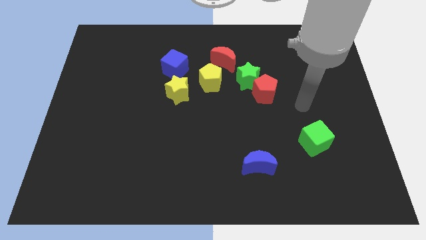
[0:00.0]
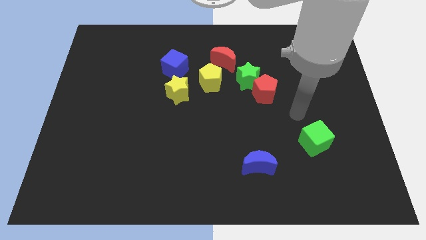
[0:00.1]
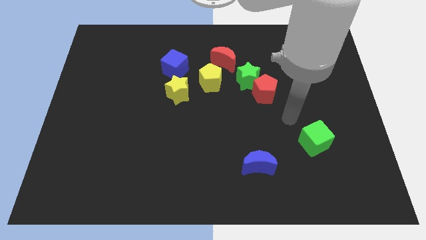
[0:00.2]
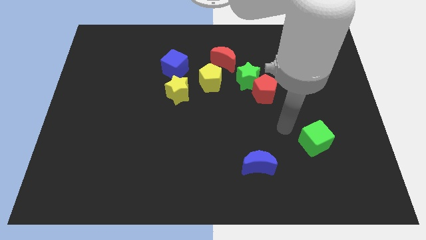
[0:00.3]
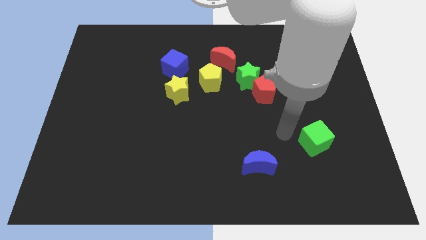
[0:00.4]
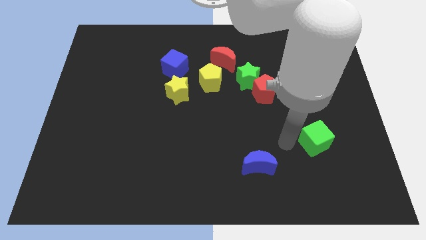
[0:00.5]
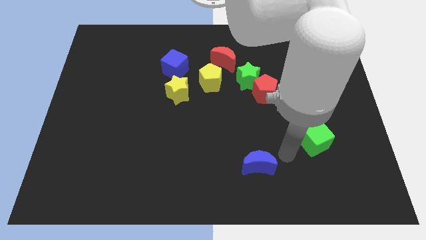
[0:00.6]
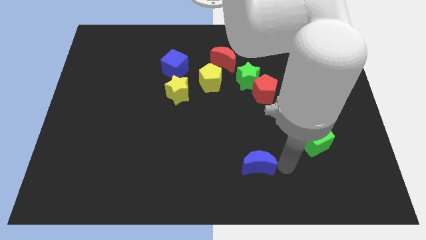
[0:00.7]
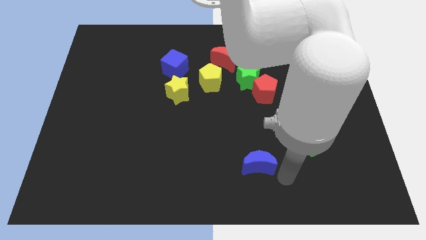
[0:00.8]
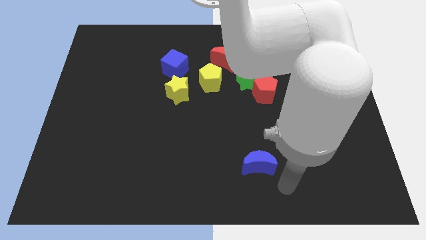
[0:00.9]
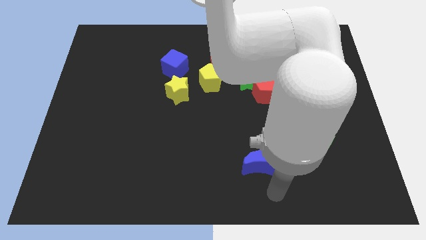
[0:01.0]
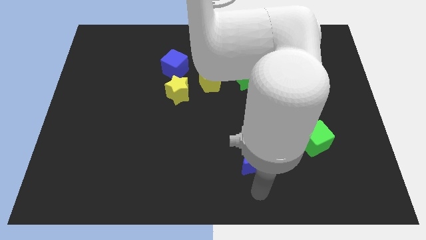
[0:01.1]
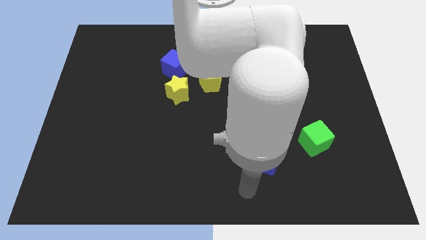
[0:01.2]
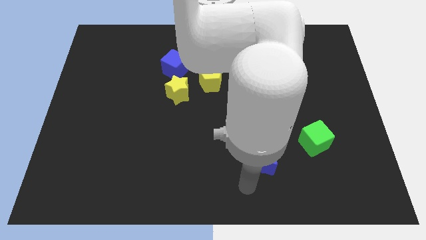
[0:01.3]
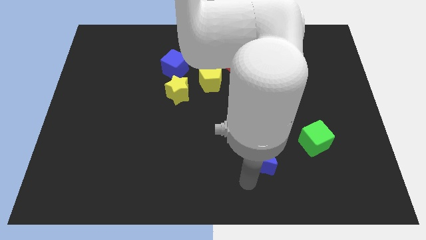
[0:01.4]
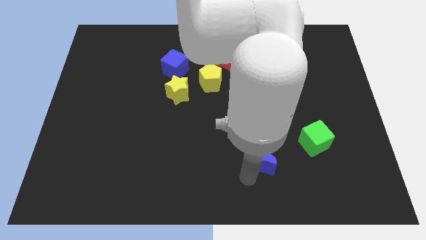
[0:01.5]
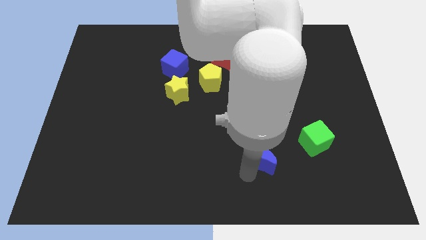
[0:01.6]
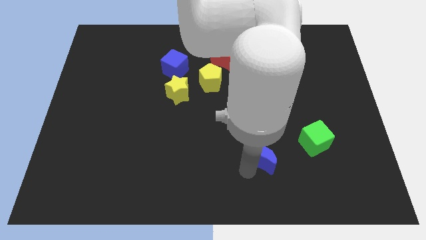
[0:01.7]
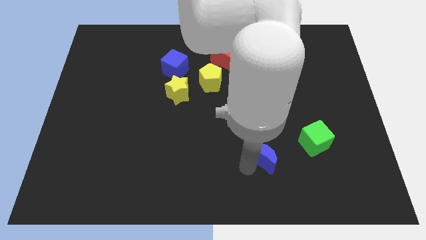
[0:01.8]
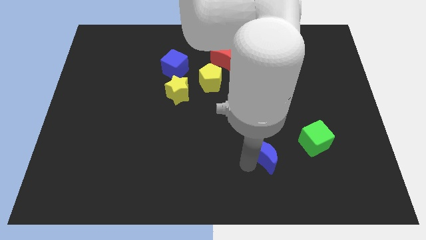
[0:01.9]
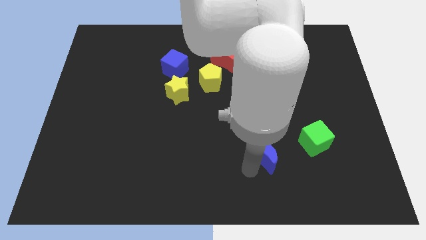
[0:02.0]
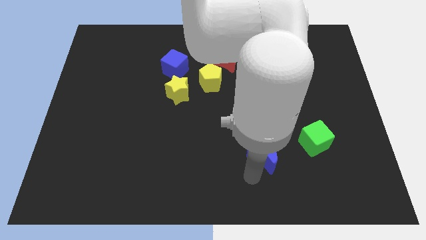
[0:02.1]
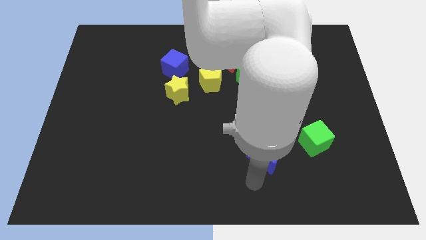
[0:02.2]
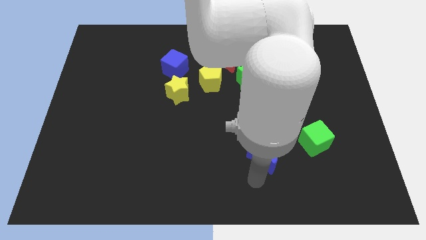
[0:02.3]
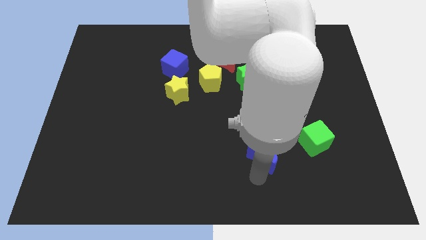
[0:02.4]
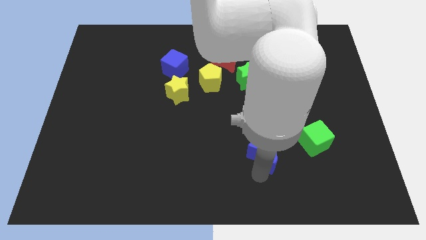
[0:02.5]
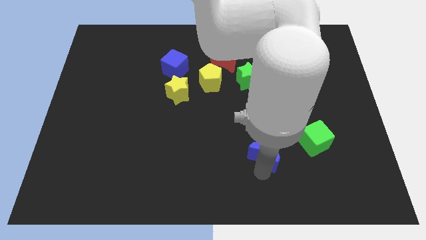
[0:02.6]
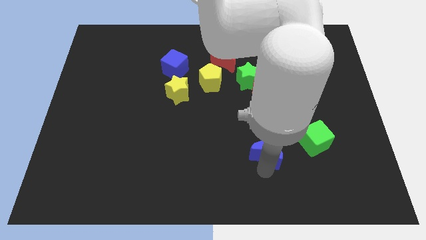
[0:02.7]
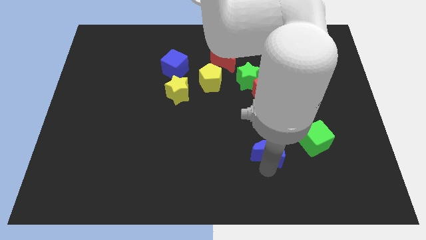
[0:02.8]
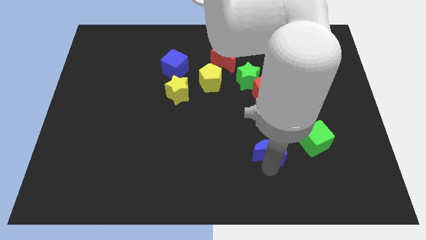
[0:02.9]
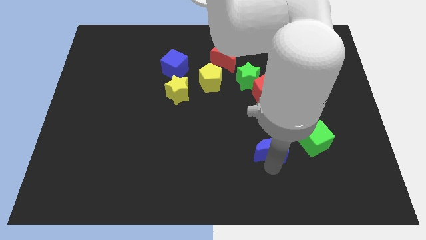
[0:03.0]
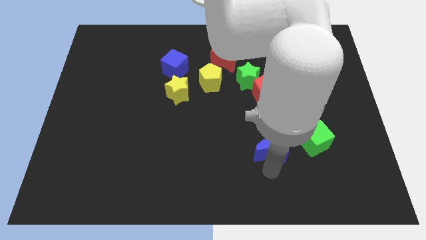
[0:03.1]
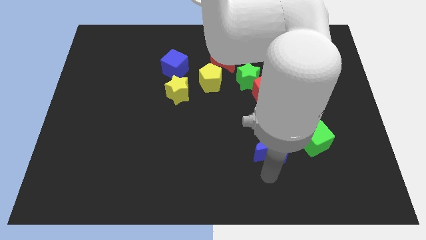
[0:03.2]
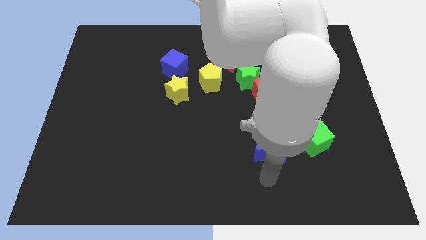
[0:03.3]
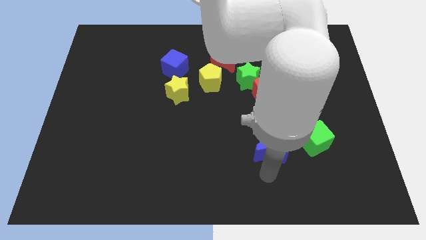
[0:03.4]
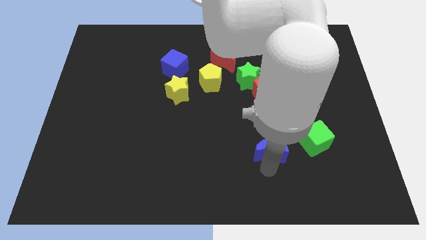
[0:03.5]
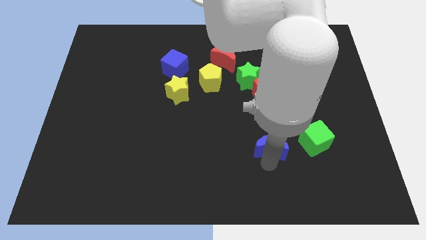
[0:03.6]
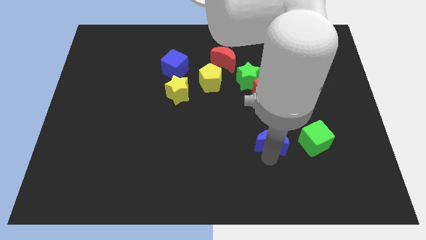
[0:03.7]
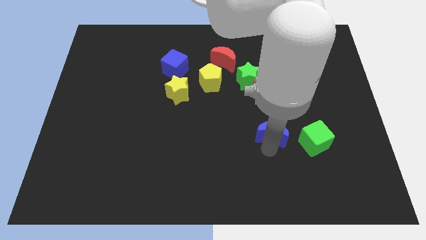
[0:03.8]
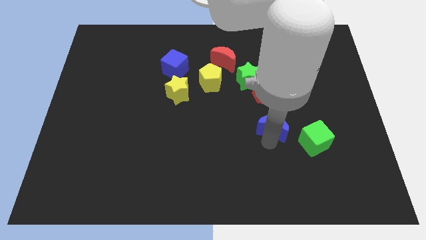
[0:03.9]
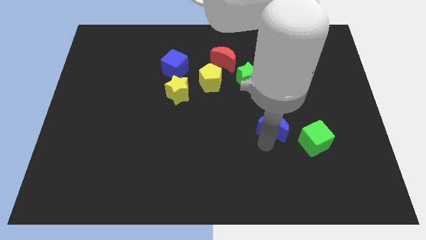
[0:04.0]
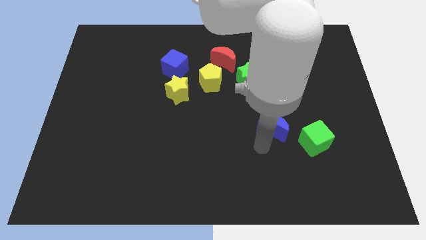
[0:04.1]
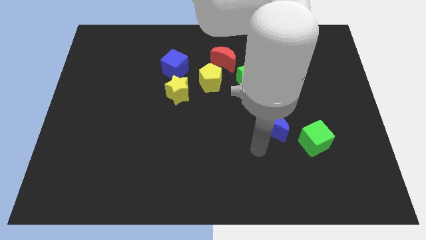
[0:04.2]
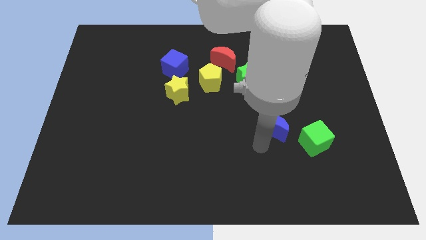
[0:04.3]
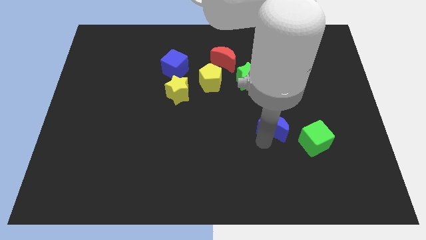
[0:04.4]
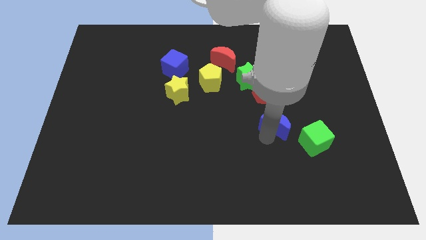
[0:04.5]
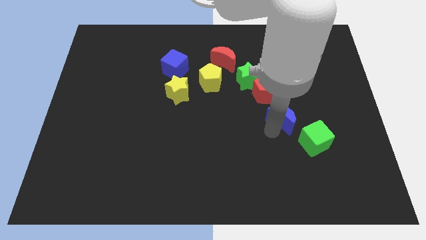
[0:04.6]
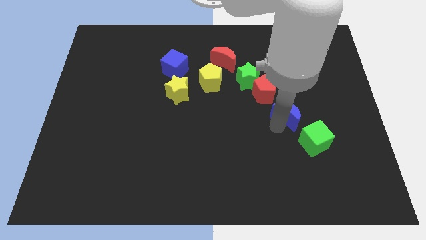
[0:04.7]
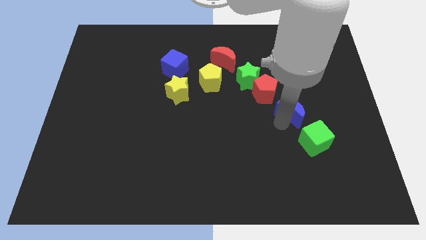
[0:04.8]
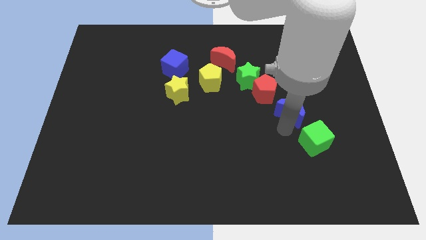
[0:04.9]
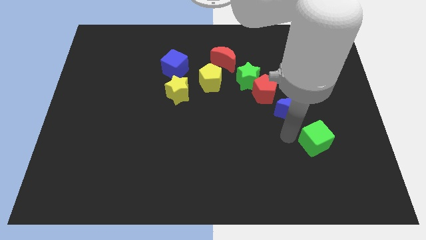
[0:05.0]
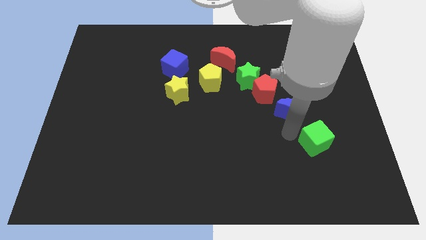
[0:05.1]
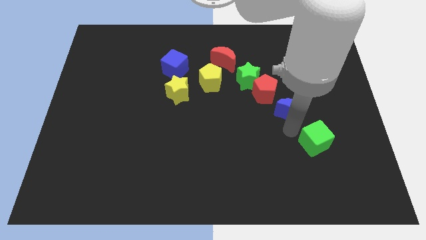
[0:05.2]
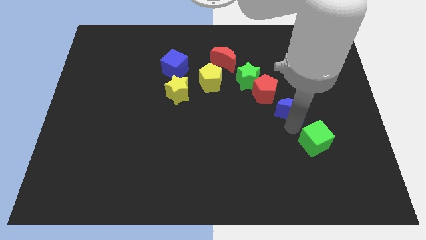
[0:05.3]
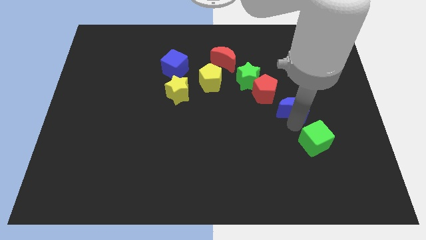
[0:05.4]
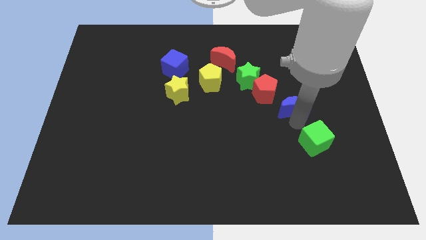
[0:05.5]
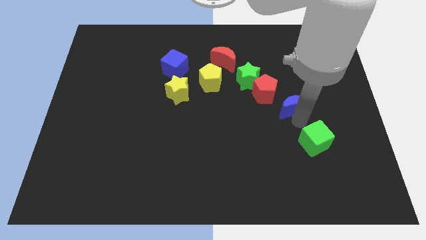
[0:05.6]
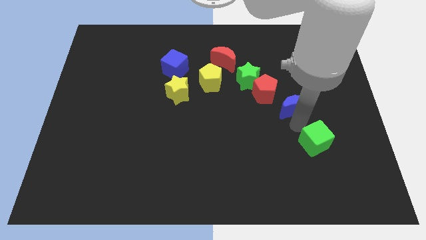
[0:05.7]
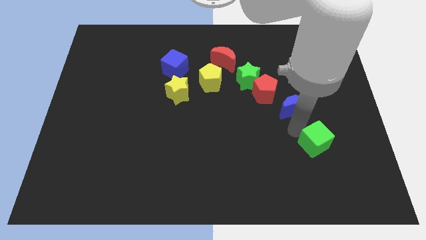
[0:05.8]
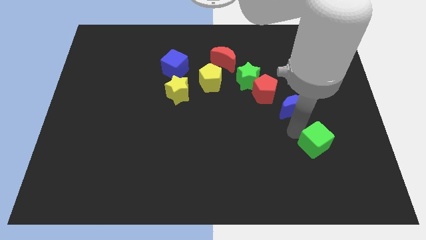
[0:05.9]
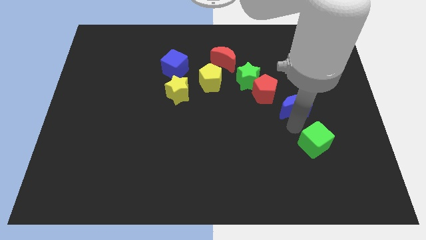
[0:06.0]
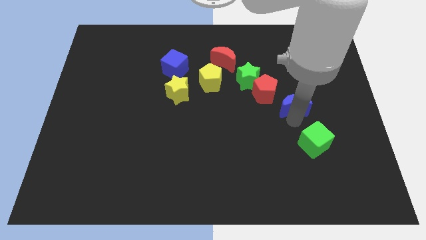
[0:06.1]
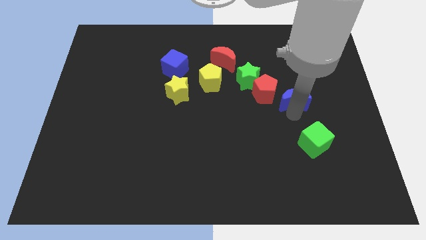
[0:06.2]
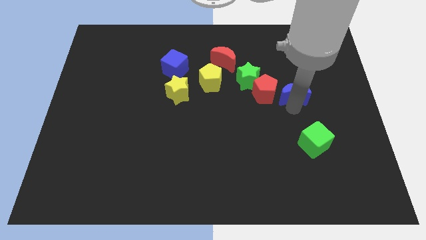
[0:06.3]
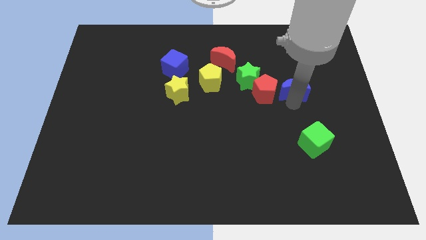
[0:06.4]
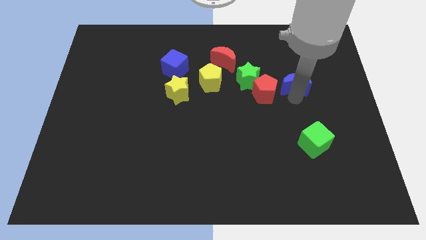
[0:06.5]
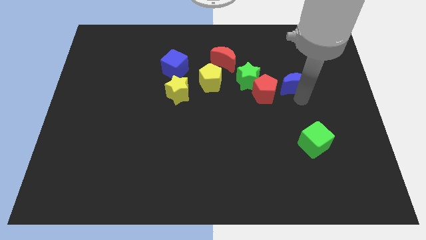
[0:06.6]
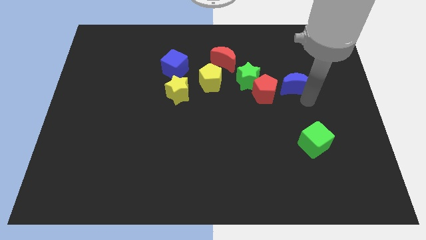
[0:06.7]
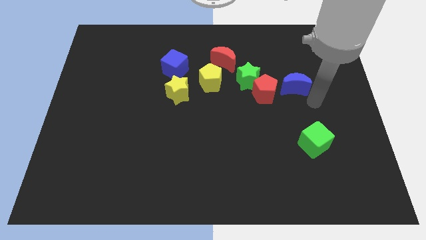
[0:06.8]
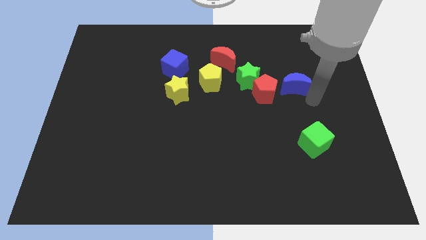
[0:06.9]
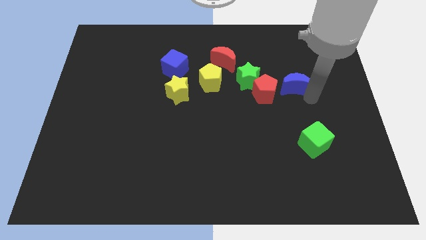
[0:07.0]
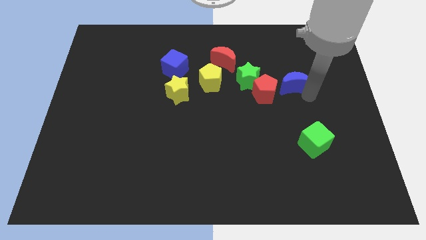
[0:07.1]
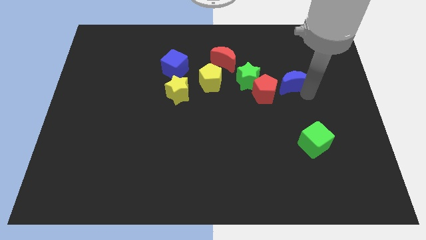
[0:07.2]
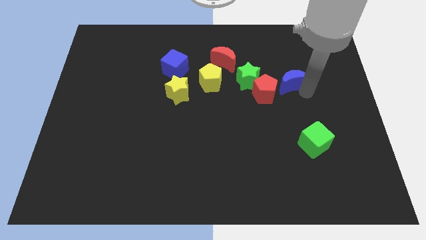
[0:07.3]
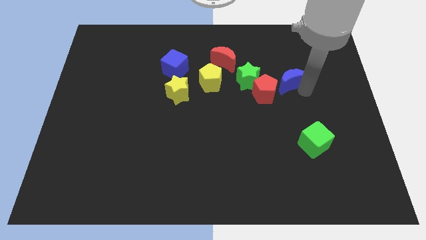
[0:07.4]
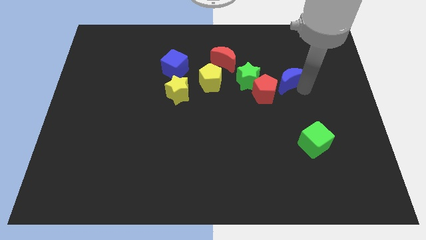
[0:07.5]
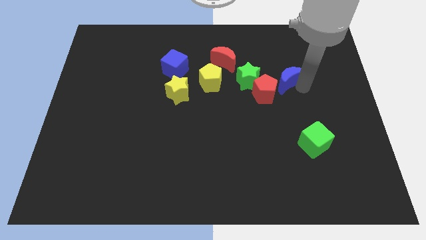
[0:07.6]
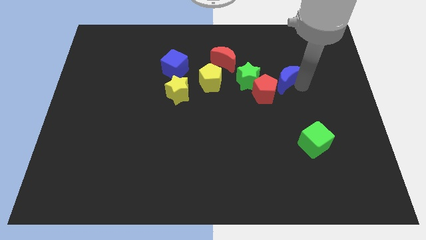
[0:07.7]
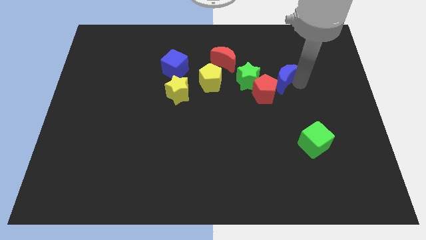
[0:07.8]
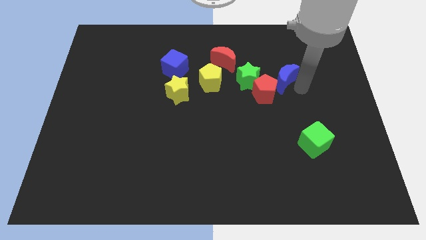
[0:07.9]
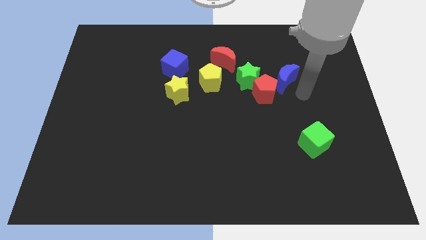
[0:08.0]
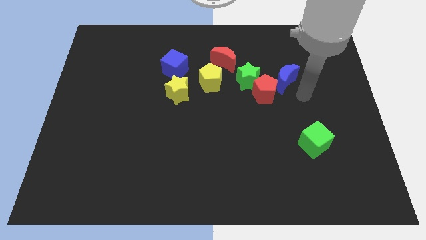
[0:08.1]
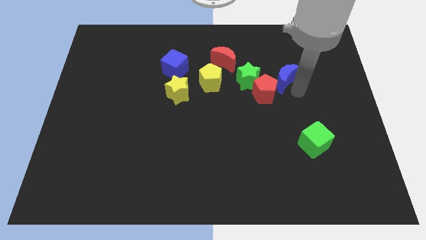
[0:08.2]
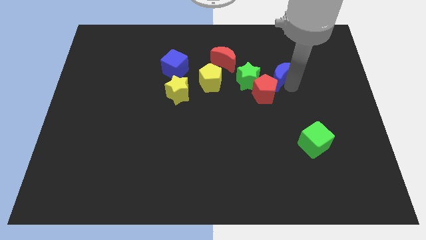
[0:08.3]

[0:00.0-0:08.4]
push the blue moon to the top of the red pentagon
